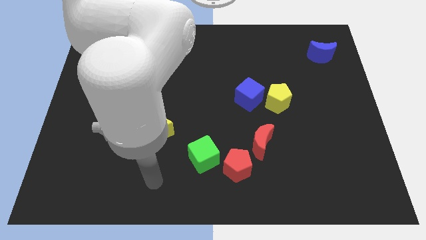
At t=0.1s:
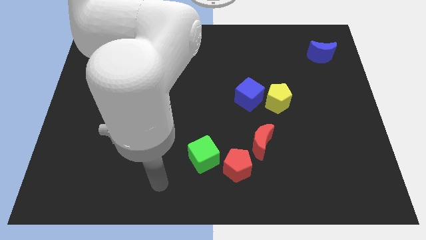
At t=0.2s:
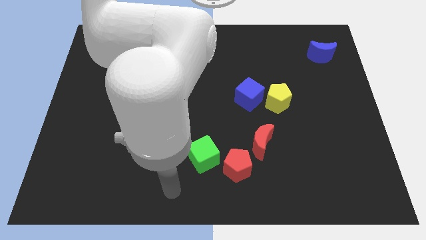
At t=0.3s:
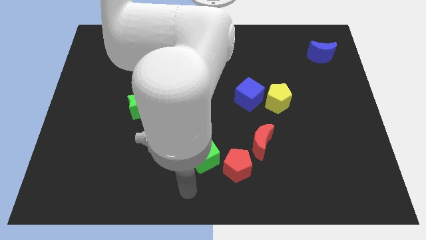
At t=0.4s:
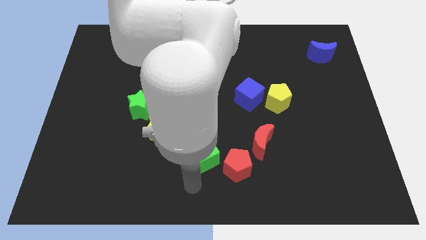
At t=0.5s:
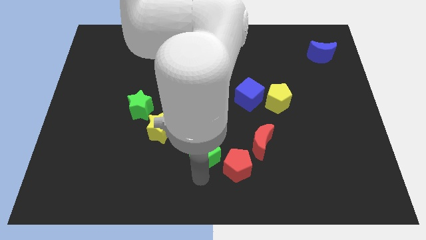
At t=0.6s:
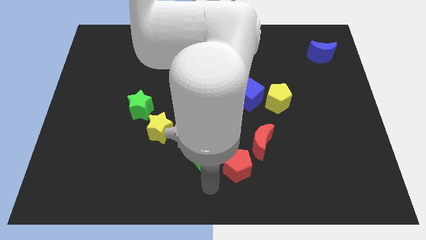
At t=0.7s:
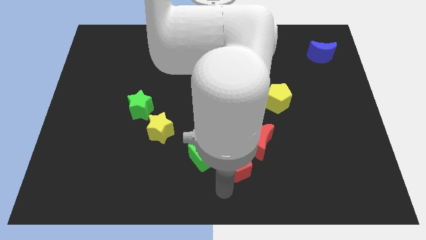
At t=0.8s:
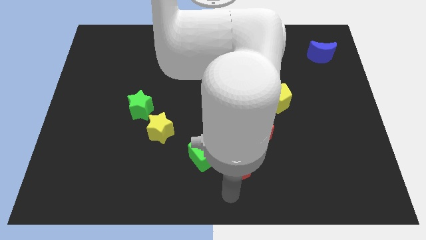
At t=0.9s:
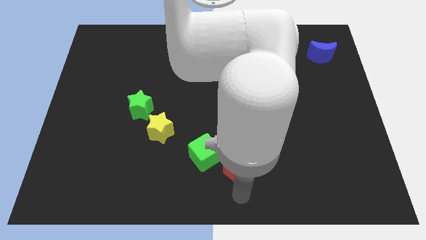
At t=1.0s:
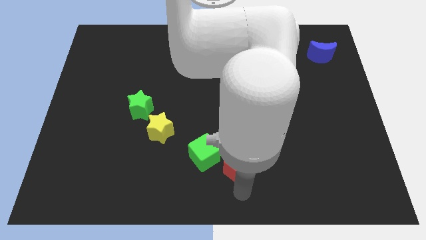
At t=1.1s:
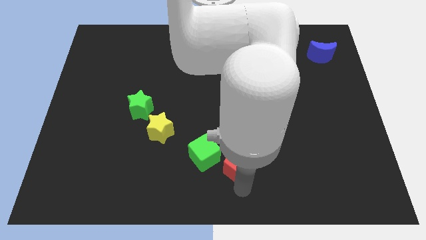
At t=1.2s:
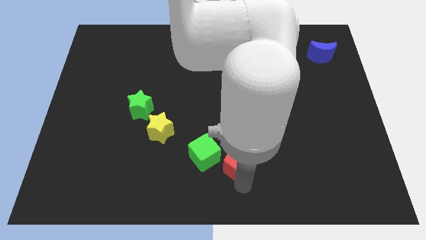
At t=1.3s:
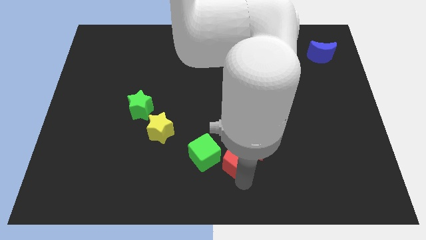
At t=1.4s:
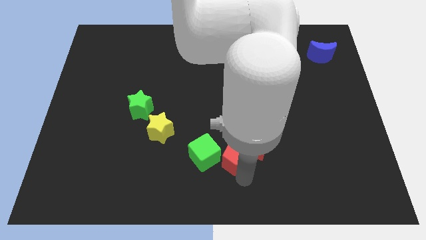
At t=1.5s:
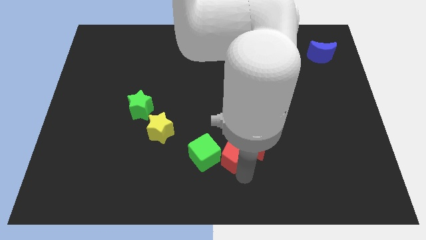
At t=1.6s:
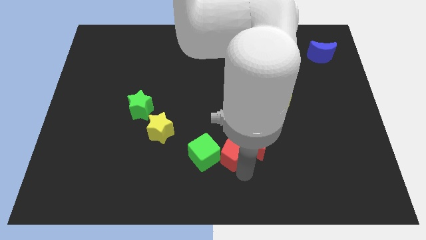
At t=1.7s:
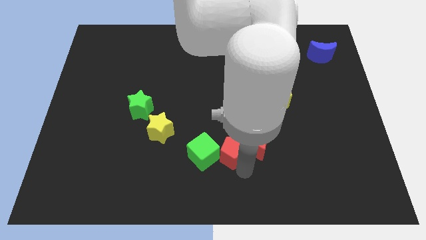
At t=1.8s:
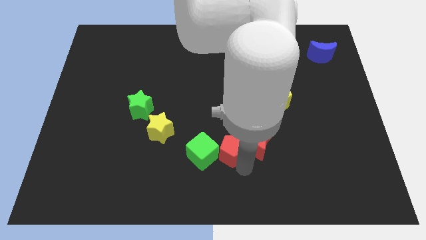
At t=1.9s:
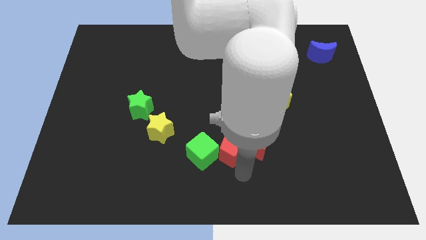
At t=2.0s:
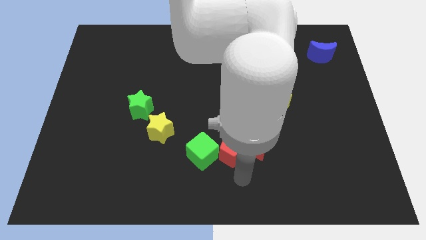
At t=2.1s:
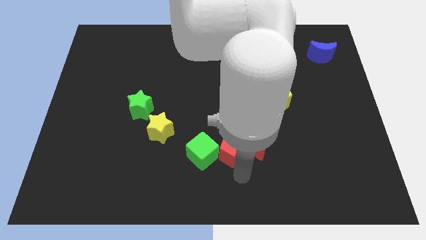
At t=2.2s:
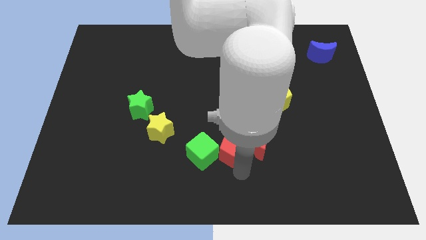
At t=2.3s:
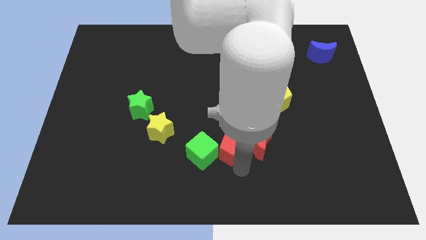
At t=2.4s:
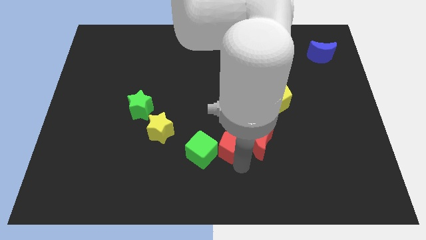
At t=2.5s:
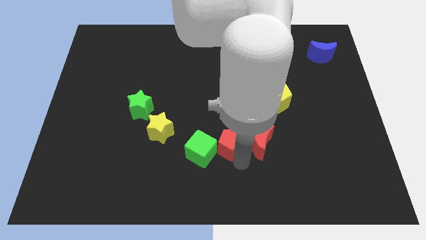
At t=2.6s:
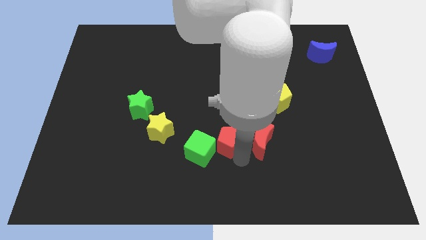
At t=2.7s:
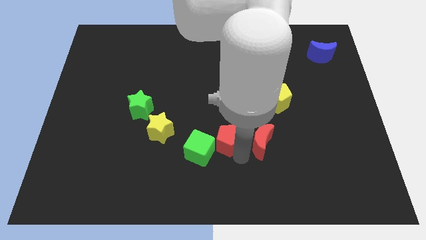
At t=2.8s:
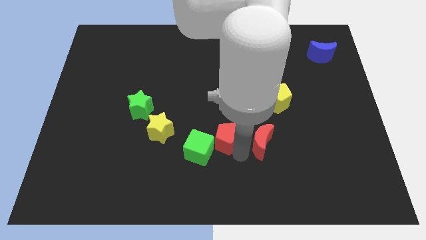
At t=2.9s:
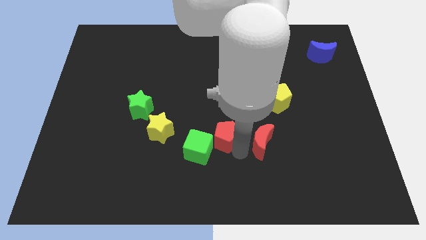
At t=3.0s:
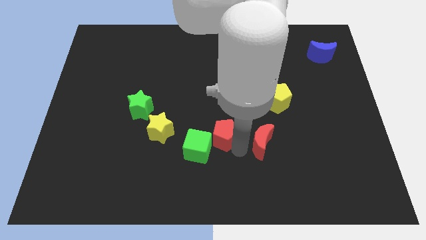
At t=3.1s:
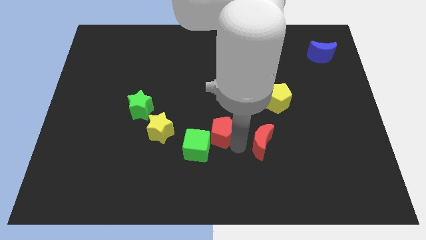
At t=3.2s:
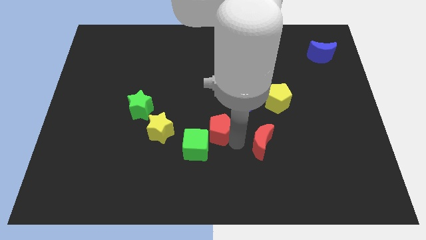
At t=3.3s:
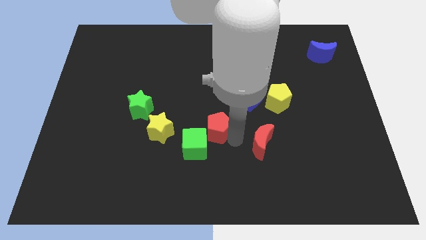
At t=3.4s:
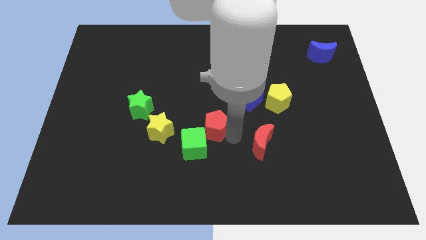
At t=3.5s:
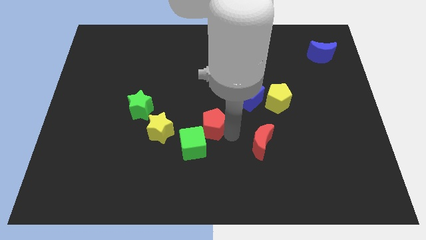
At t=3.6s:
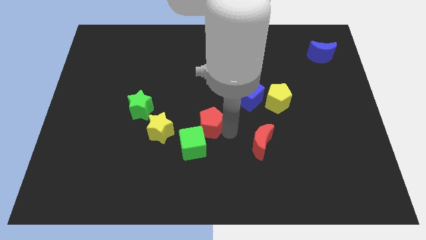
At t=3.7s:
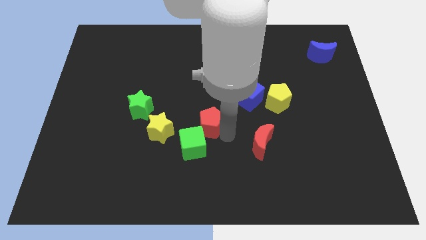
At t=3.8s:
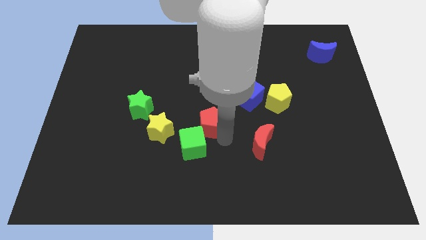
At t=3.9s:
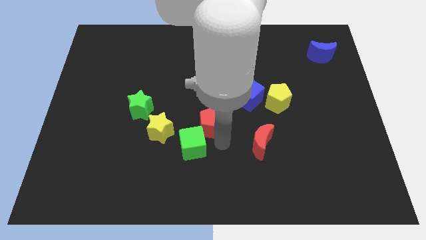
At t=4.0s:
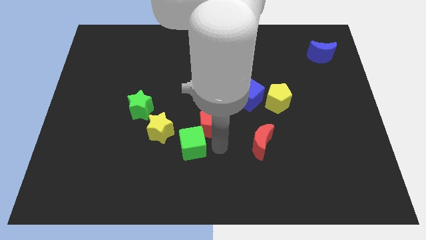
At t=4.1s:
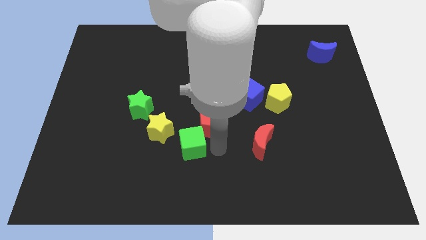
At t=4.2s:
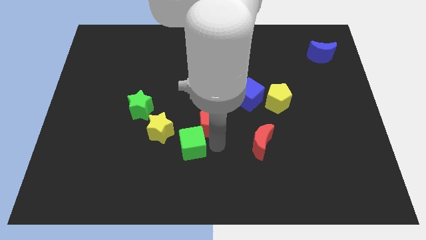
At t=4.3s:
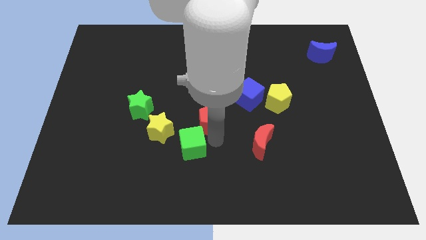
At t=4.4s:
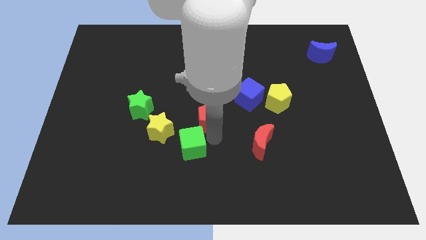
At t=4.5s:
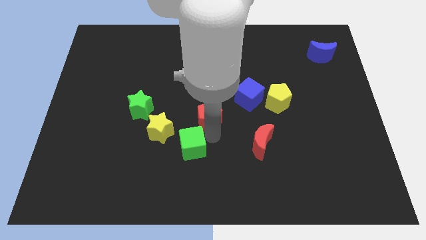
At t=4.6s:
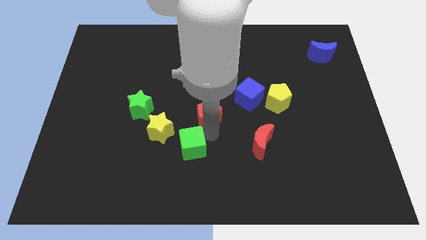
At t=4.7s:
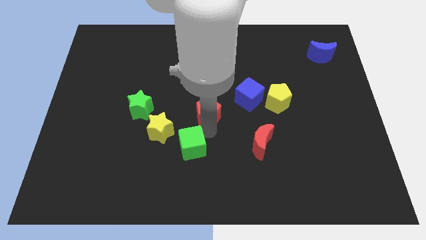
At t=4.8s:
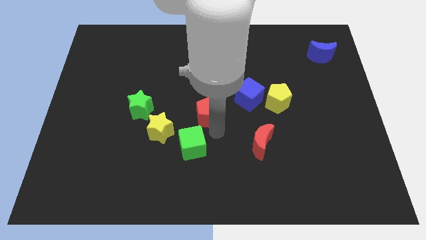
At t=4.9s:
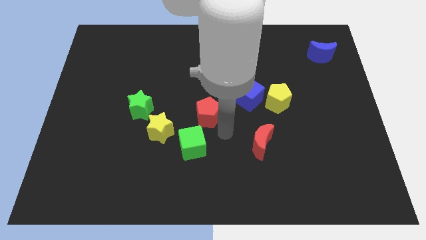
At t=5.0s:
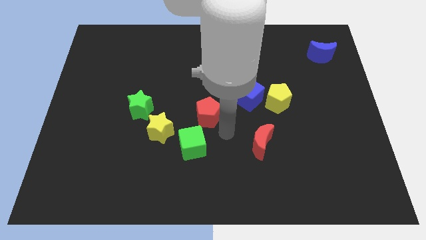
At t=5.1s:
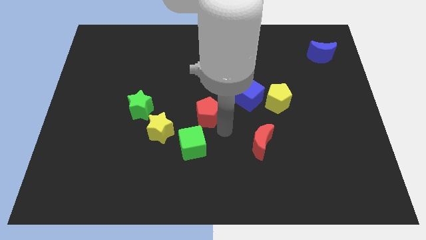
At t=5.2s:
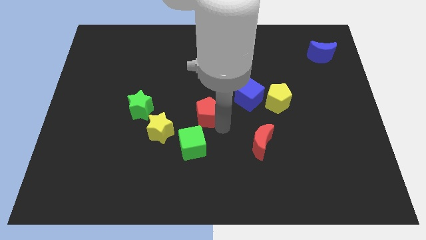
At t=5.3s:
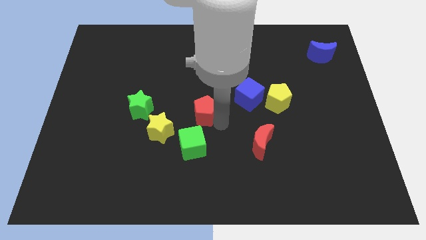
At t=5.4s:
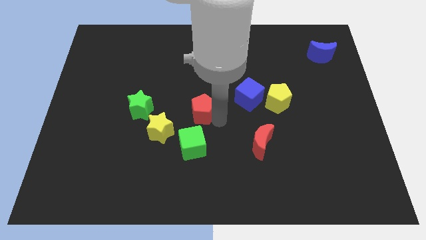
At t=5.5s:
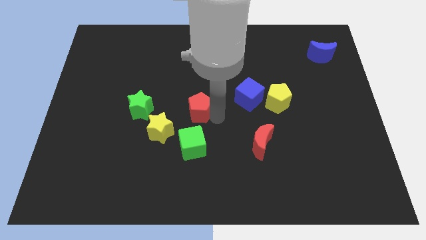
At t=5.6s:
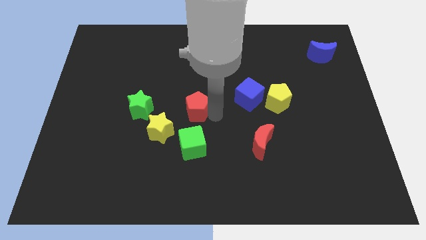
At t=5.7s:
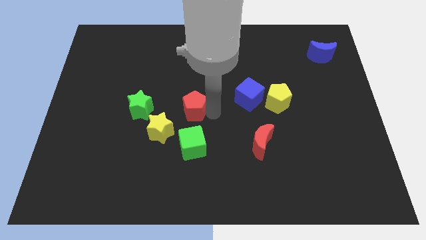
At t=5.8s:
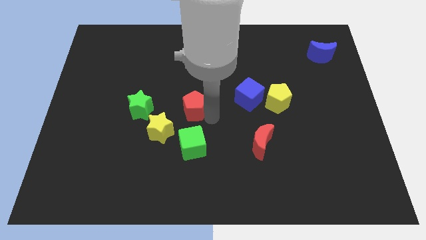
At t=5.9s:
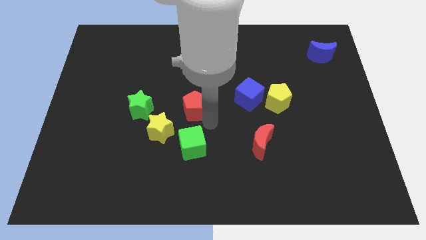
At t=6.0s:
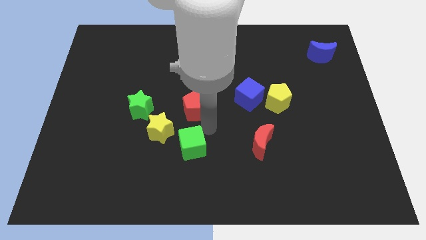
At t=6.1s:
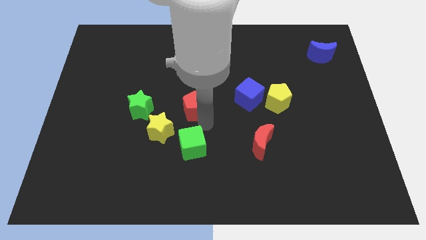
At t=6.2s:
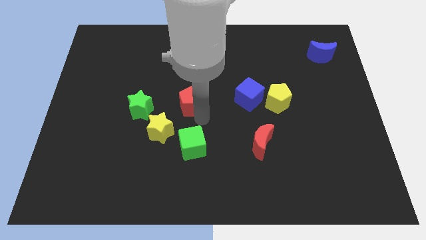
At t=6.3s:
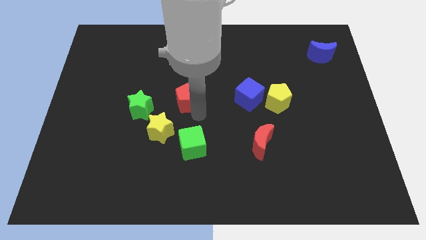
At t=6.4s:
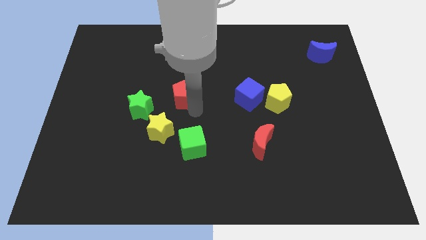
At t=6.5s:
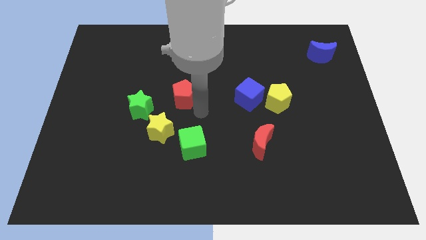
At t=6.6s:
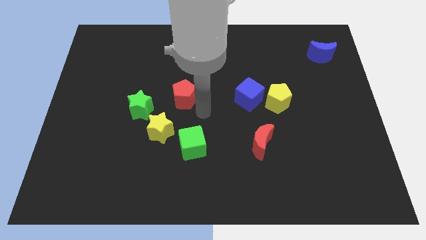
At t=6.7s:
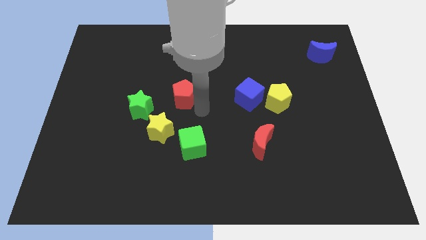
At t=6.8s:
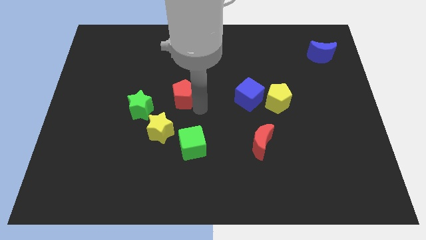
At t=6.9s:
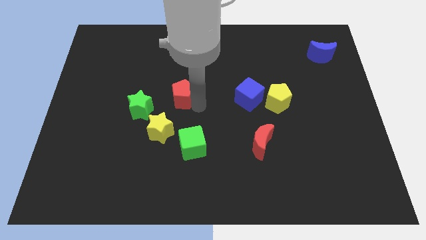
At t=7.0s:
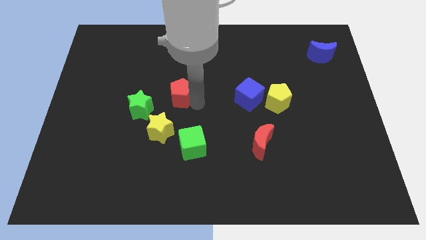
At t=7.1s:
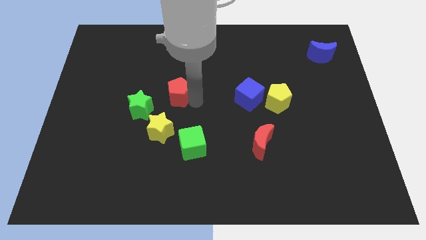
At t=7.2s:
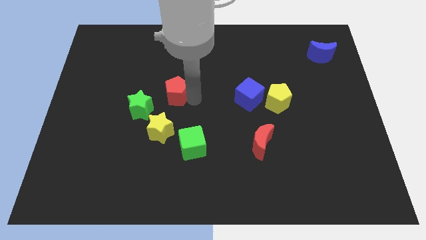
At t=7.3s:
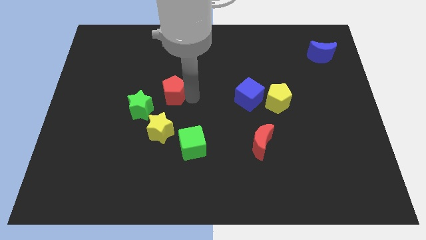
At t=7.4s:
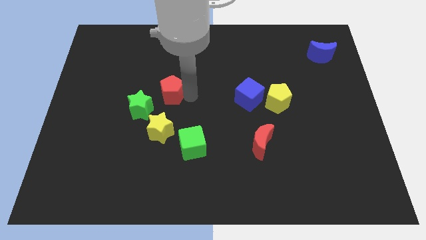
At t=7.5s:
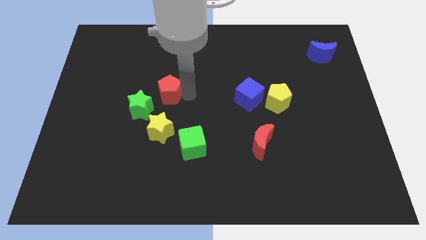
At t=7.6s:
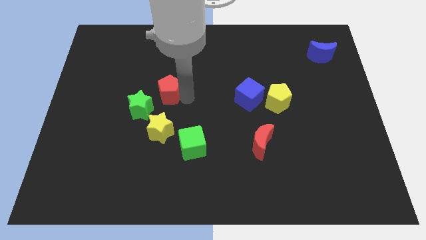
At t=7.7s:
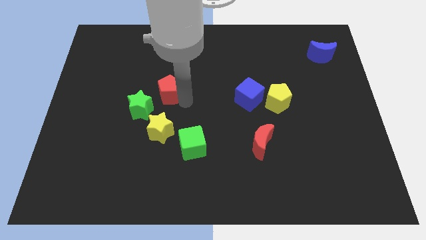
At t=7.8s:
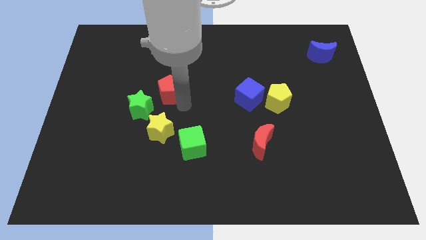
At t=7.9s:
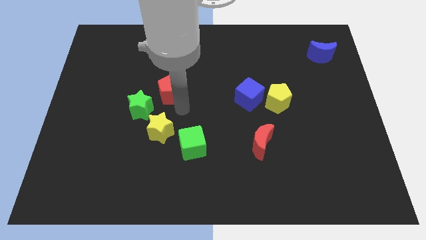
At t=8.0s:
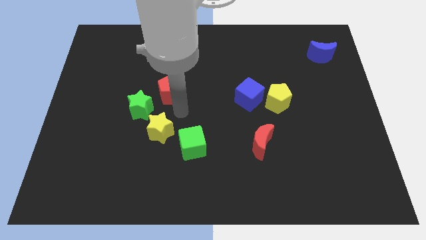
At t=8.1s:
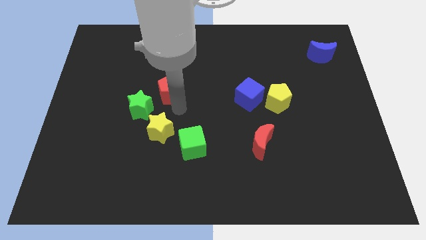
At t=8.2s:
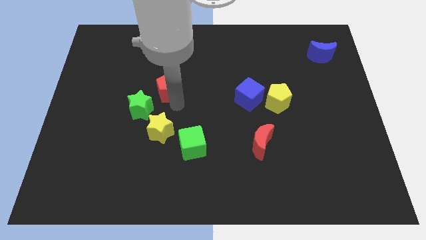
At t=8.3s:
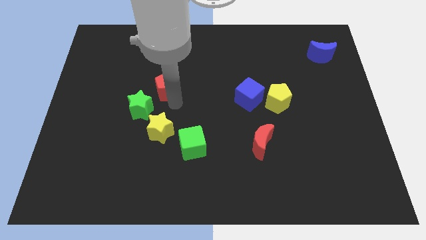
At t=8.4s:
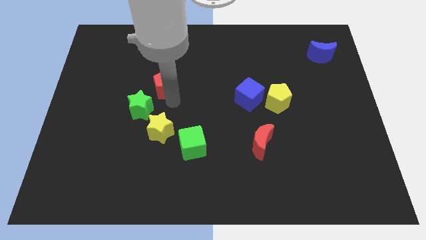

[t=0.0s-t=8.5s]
push the red pentagon to the top side of the green star
